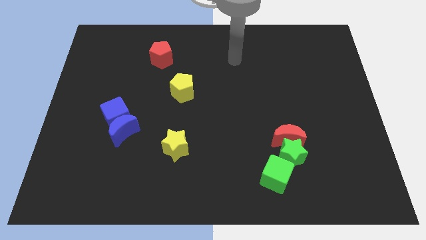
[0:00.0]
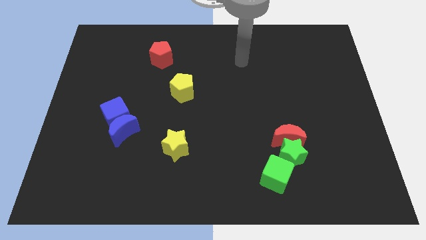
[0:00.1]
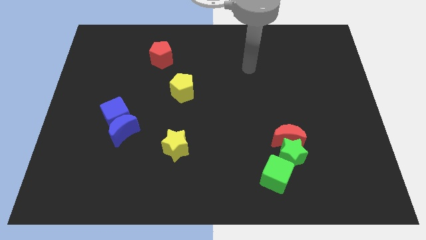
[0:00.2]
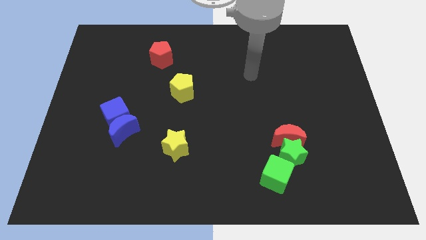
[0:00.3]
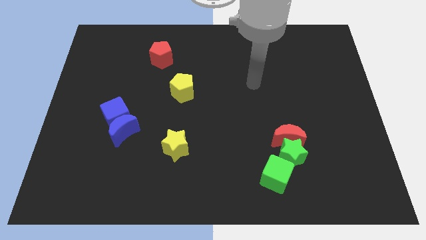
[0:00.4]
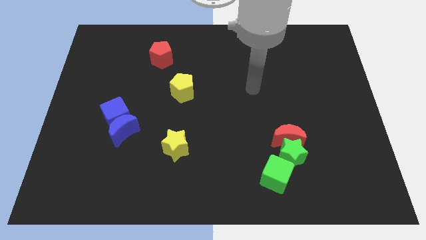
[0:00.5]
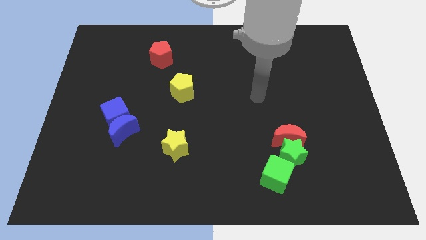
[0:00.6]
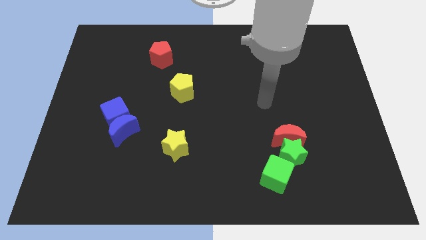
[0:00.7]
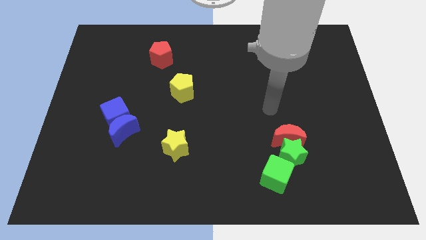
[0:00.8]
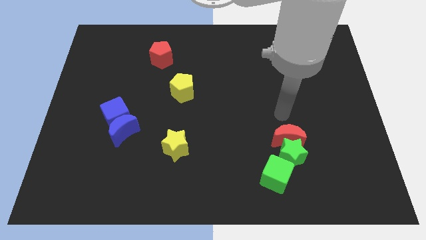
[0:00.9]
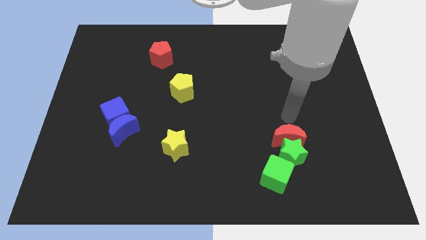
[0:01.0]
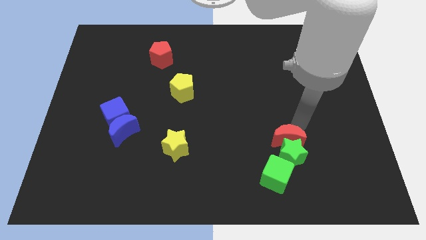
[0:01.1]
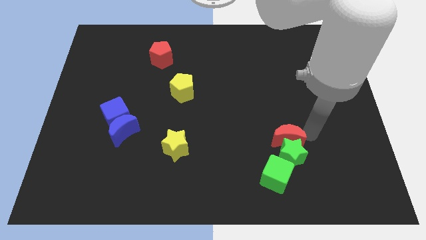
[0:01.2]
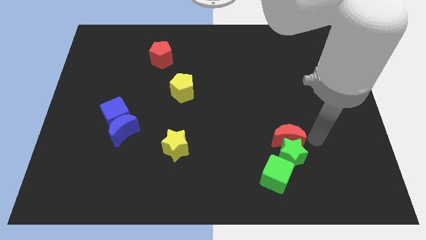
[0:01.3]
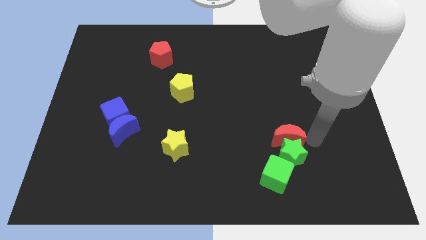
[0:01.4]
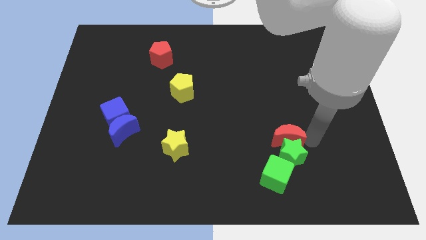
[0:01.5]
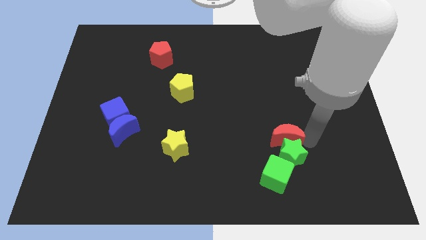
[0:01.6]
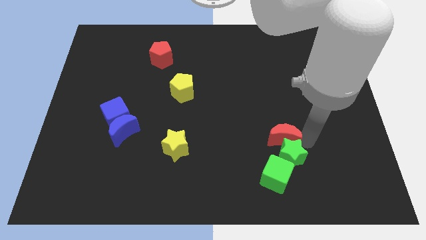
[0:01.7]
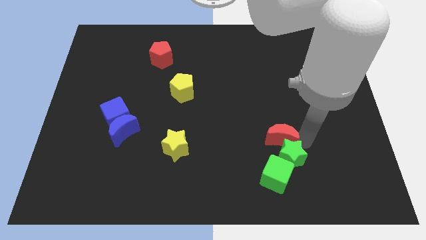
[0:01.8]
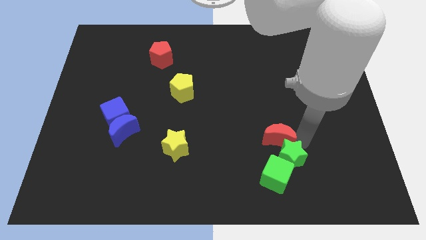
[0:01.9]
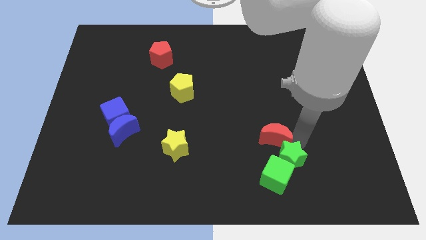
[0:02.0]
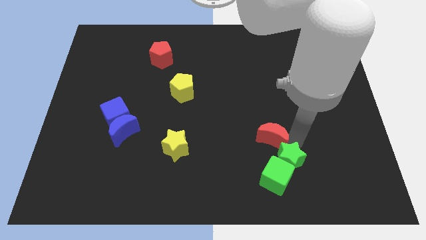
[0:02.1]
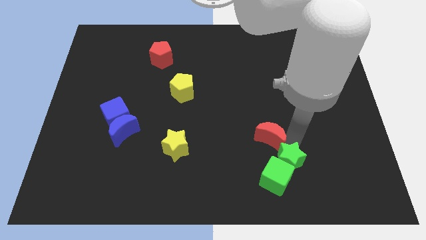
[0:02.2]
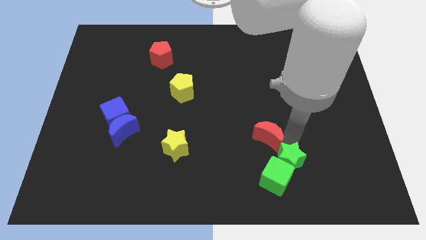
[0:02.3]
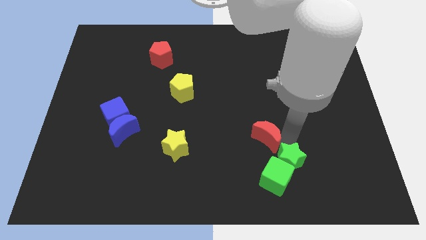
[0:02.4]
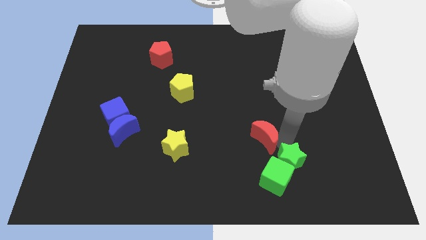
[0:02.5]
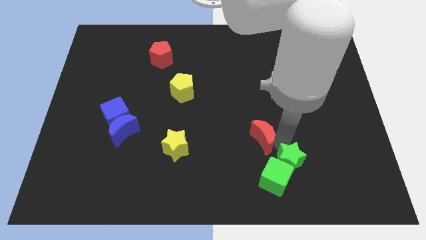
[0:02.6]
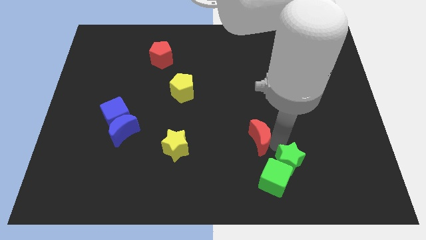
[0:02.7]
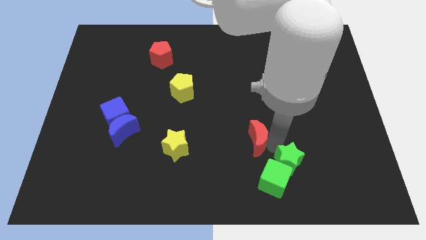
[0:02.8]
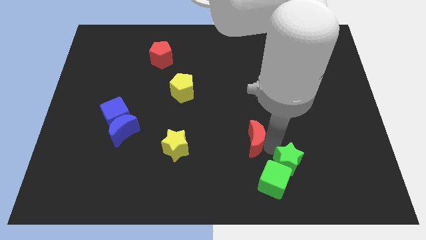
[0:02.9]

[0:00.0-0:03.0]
push the red moon somewhat to the left

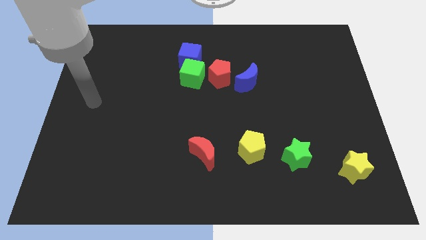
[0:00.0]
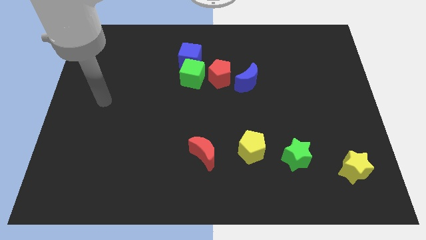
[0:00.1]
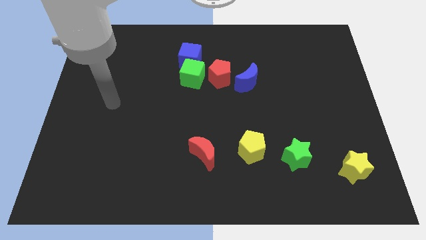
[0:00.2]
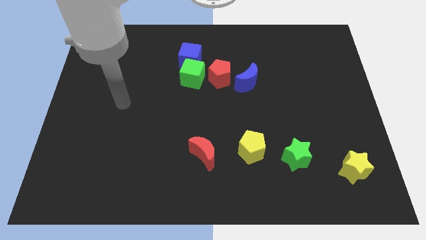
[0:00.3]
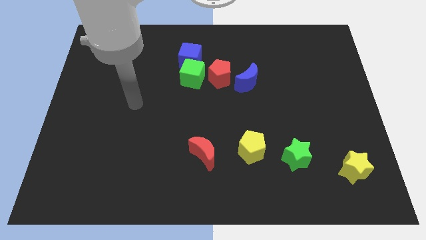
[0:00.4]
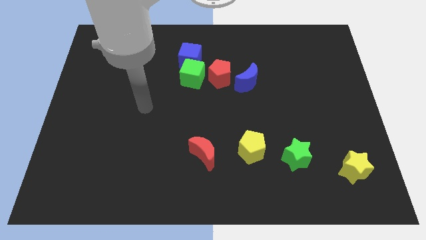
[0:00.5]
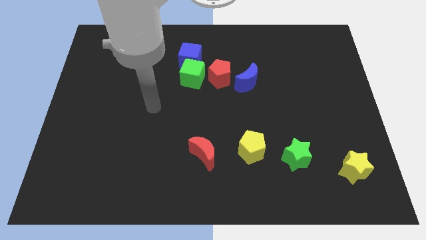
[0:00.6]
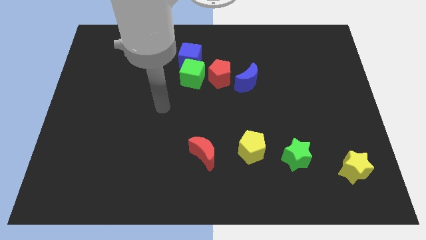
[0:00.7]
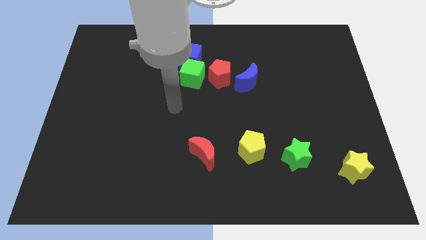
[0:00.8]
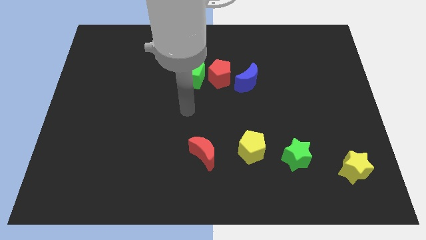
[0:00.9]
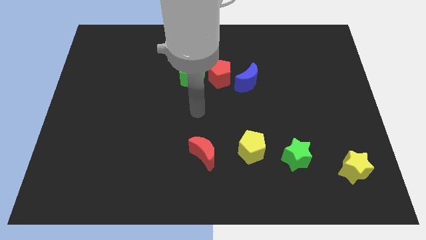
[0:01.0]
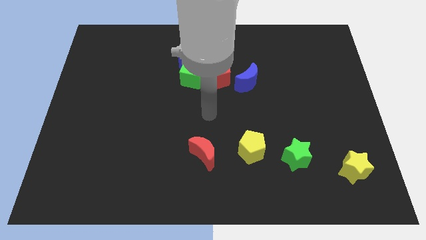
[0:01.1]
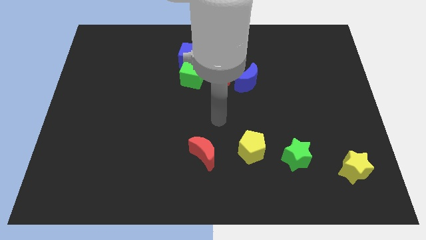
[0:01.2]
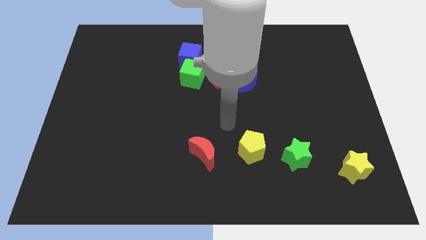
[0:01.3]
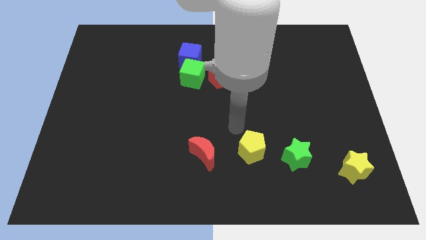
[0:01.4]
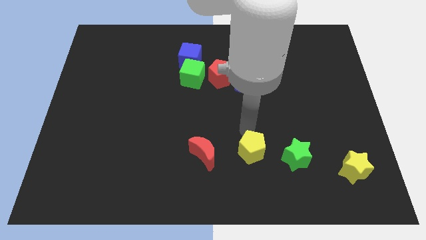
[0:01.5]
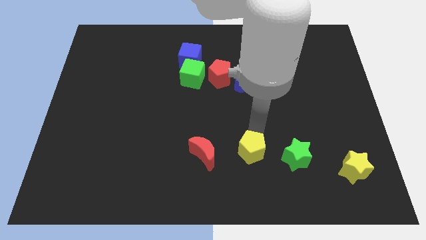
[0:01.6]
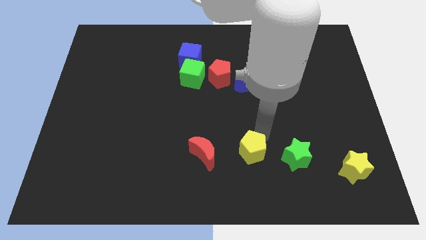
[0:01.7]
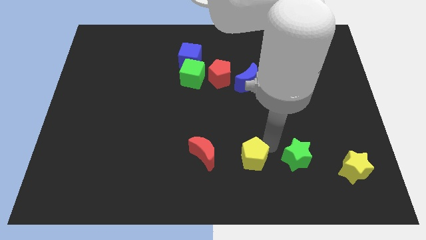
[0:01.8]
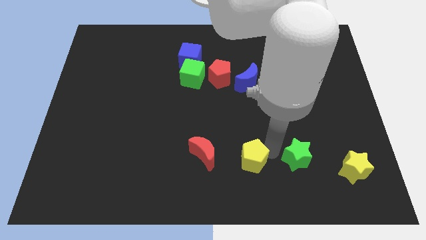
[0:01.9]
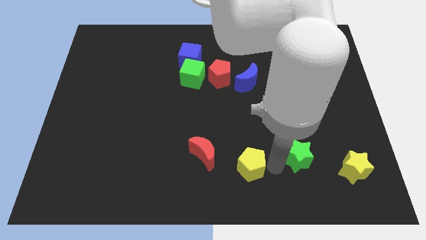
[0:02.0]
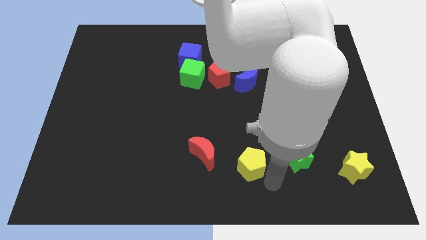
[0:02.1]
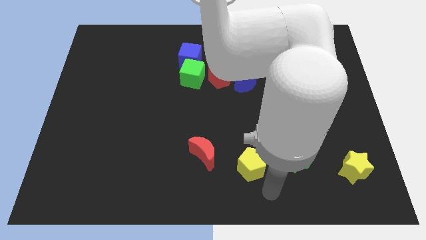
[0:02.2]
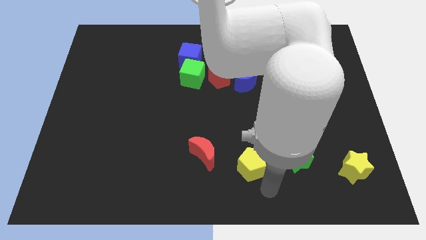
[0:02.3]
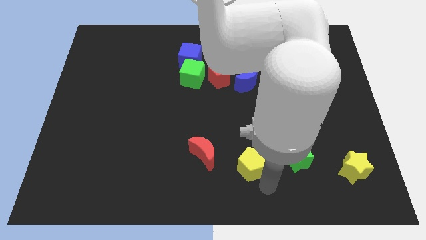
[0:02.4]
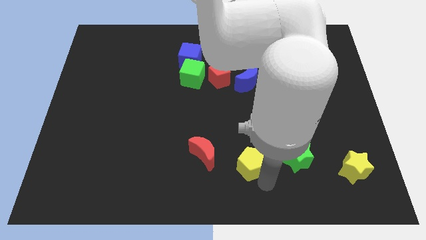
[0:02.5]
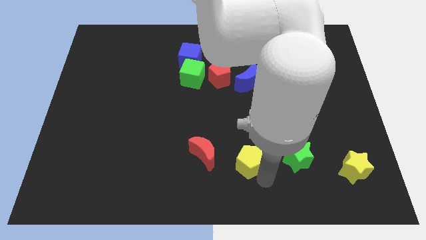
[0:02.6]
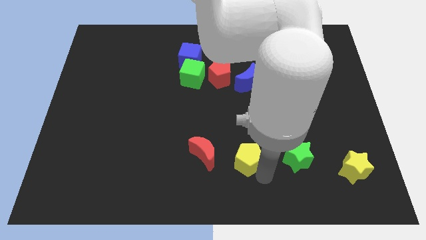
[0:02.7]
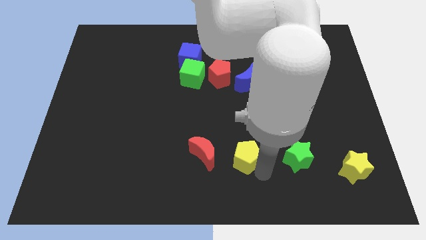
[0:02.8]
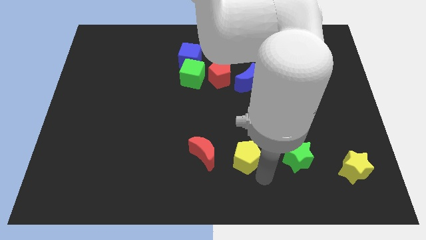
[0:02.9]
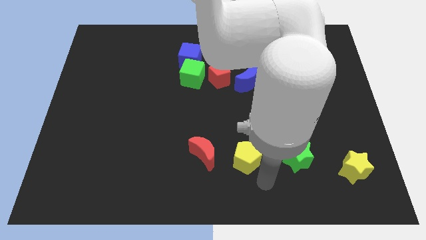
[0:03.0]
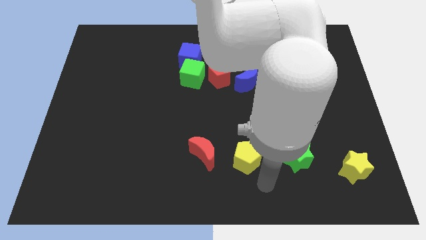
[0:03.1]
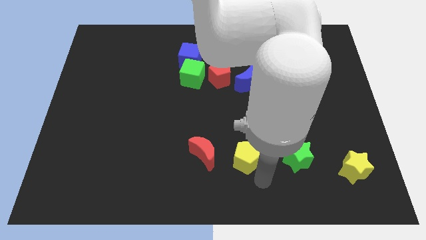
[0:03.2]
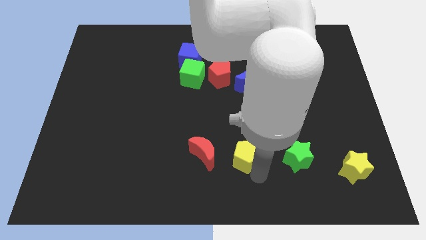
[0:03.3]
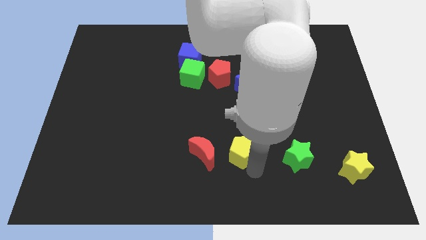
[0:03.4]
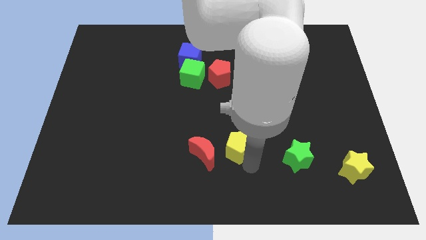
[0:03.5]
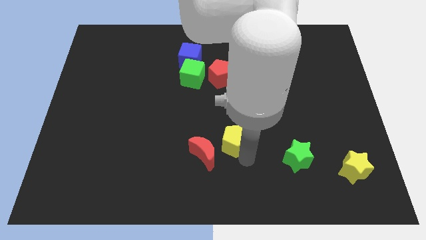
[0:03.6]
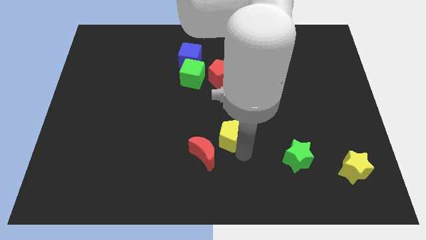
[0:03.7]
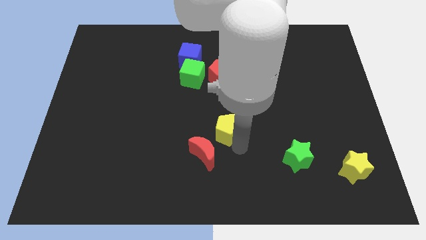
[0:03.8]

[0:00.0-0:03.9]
slide the yellow pentagon a little bit upwards and to the left

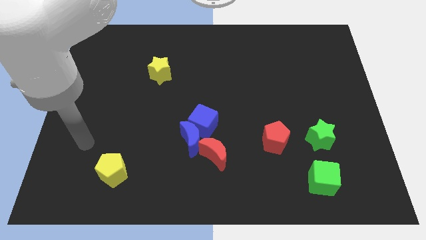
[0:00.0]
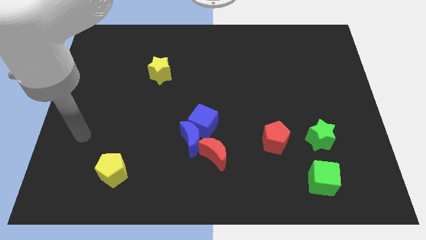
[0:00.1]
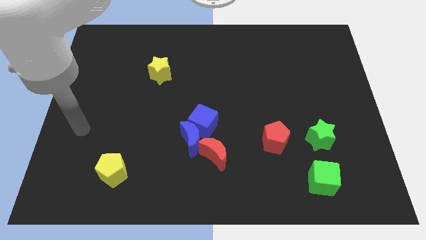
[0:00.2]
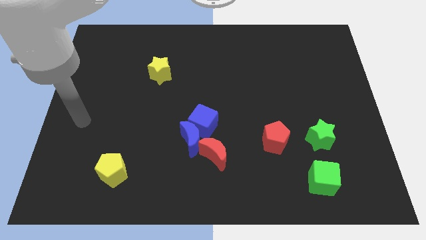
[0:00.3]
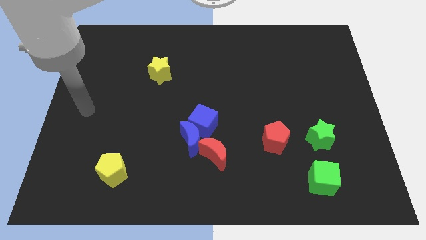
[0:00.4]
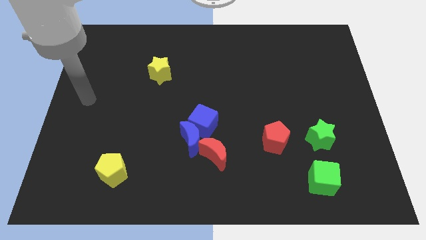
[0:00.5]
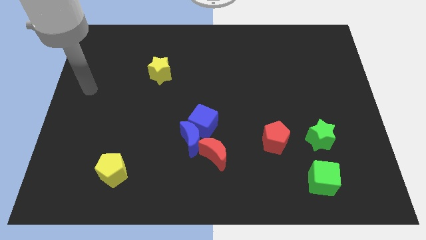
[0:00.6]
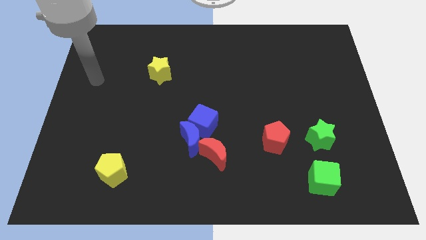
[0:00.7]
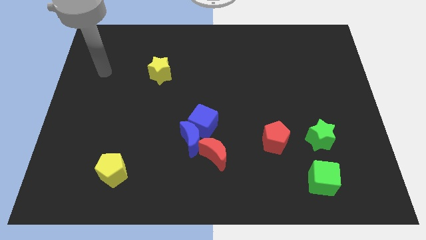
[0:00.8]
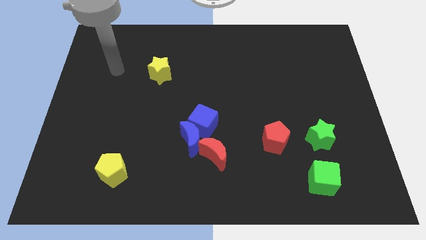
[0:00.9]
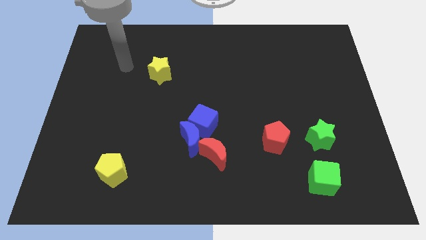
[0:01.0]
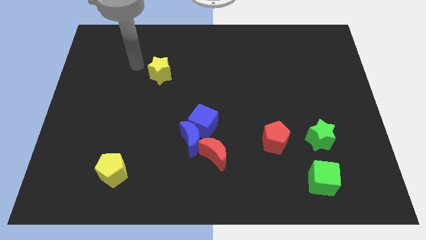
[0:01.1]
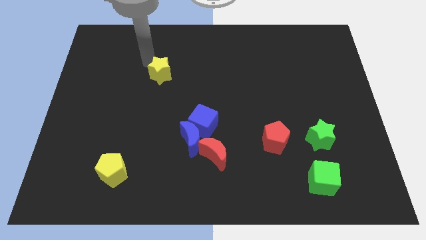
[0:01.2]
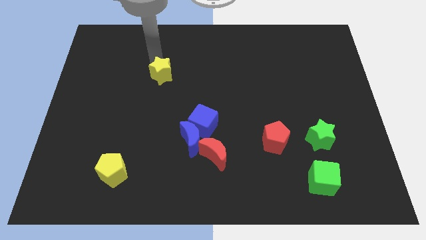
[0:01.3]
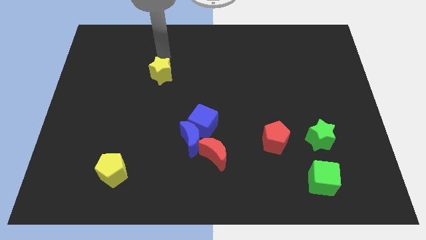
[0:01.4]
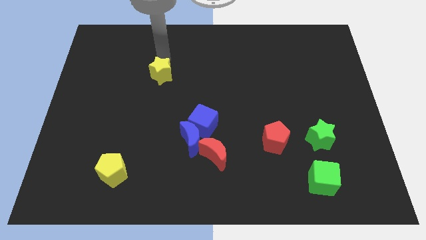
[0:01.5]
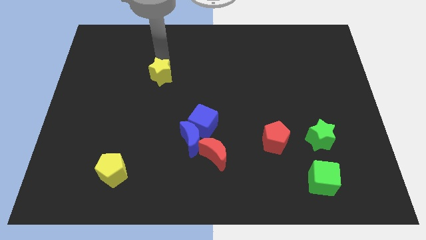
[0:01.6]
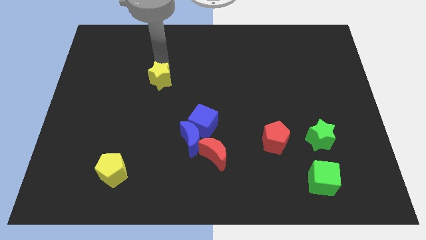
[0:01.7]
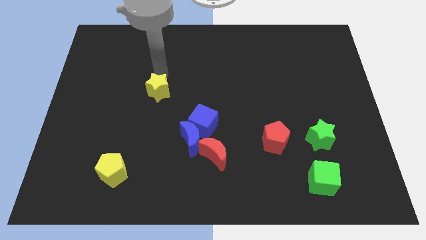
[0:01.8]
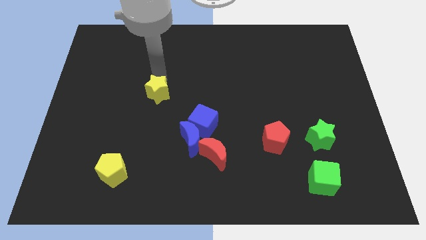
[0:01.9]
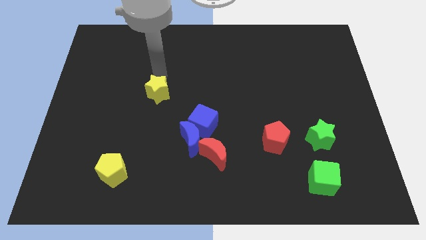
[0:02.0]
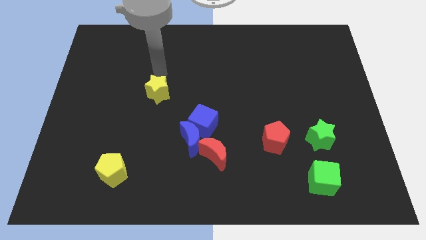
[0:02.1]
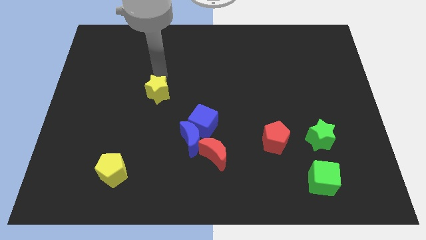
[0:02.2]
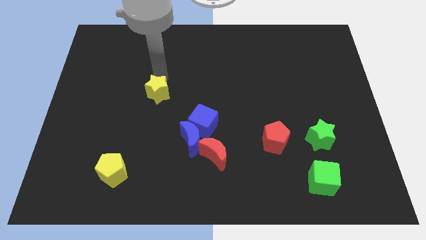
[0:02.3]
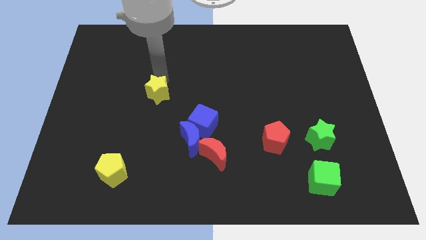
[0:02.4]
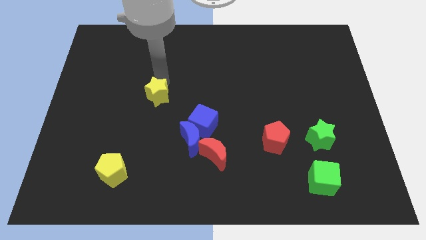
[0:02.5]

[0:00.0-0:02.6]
slightly move the yellow star down
